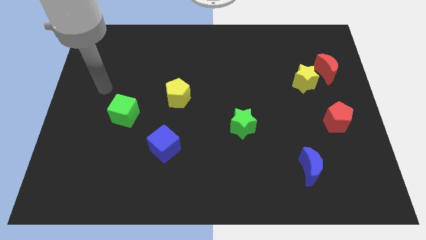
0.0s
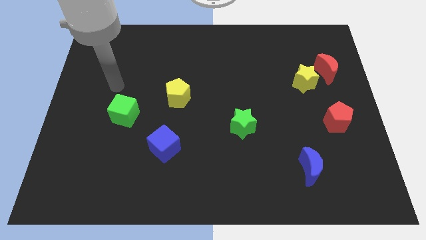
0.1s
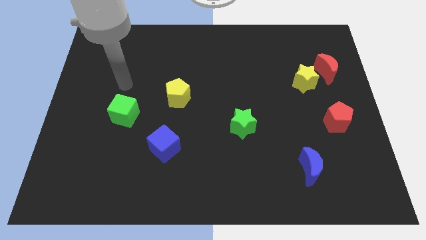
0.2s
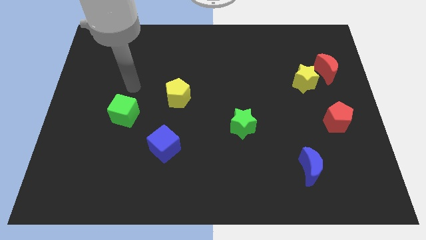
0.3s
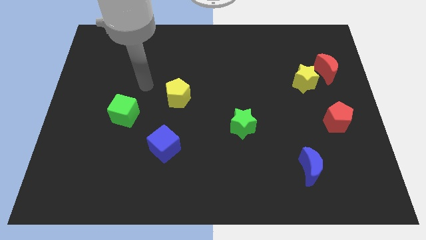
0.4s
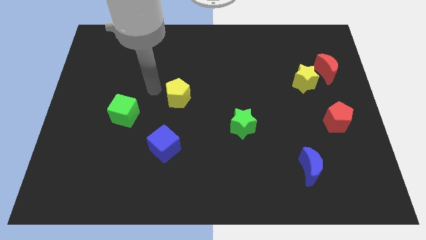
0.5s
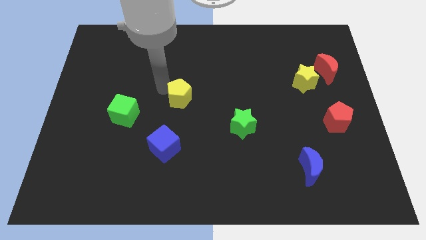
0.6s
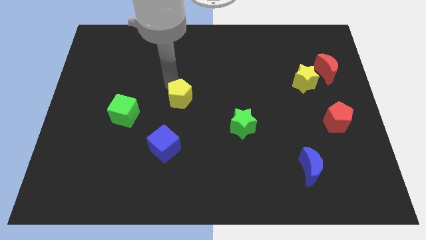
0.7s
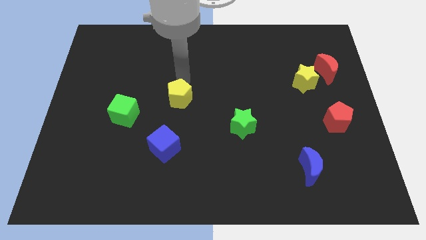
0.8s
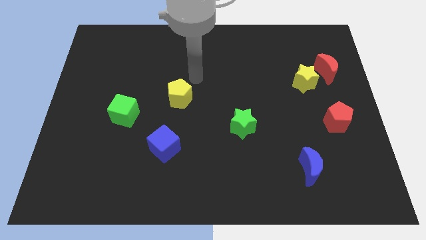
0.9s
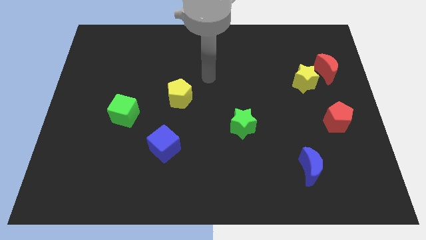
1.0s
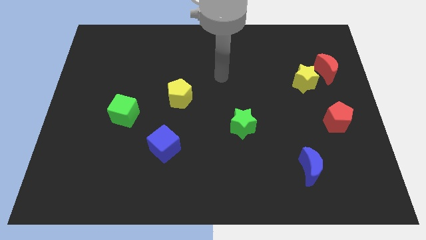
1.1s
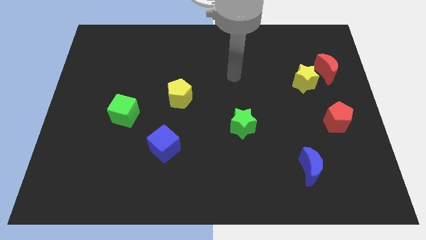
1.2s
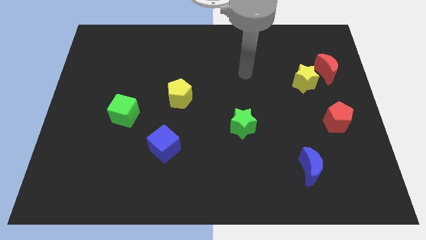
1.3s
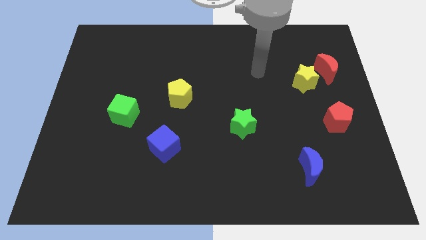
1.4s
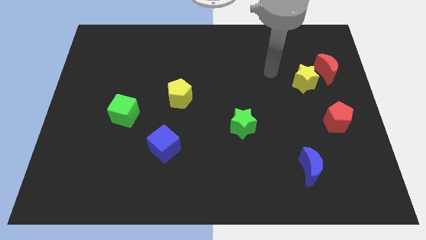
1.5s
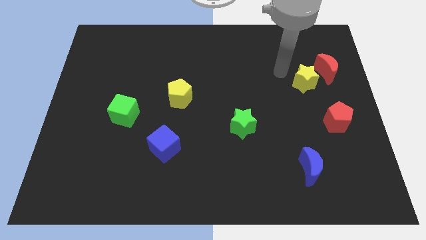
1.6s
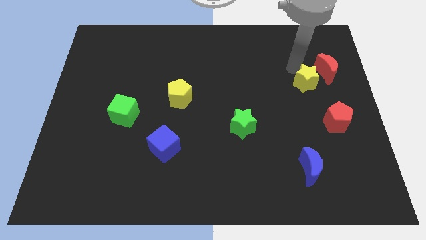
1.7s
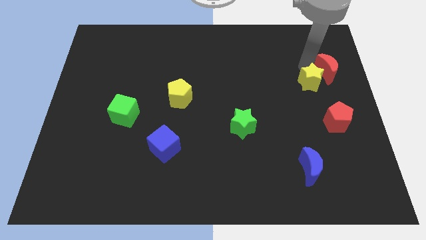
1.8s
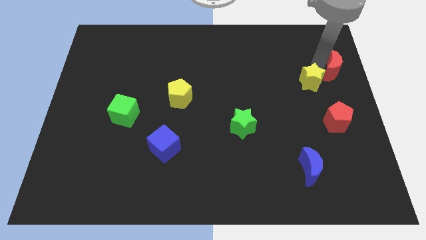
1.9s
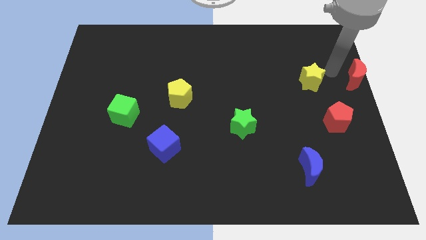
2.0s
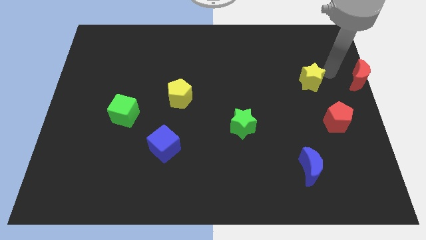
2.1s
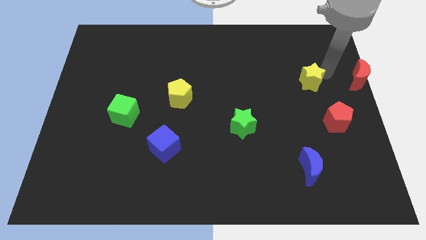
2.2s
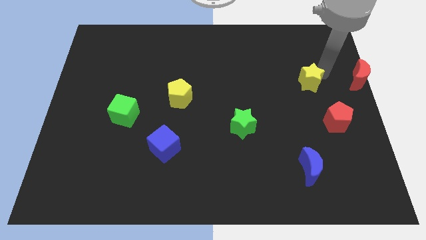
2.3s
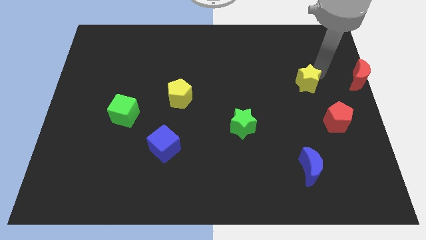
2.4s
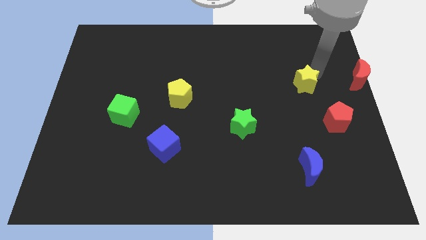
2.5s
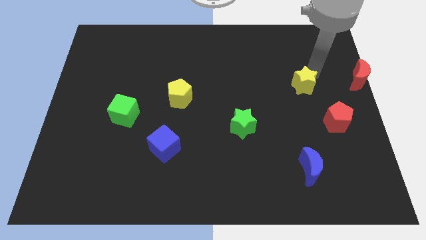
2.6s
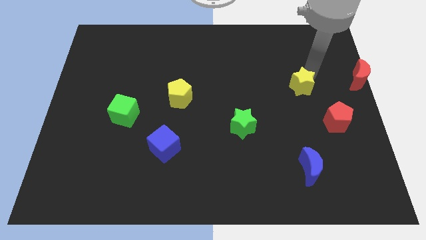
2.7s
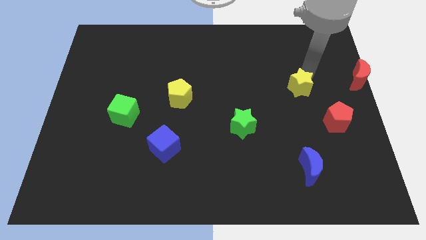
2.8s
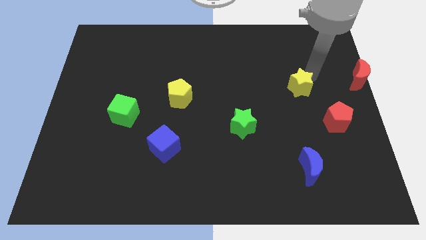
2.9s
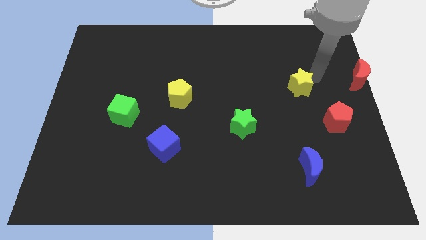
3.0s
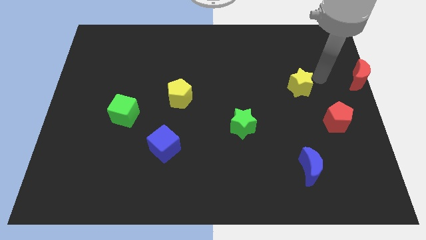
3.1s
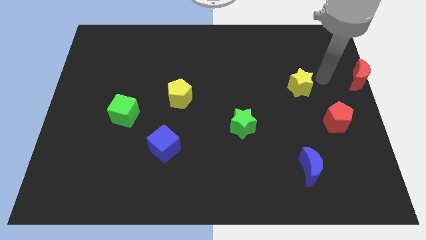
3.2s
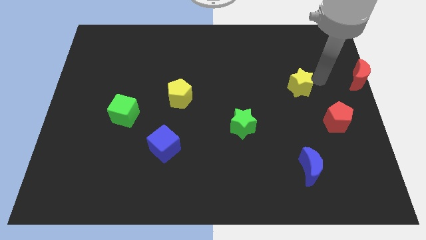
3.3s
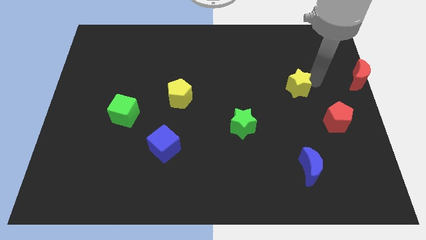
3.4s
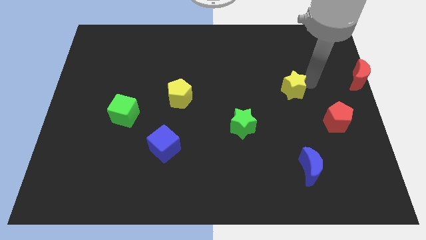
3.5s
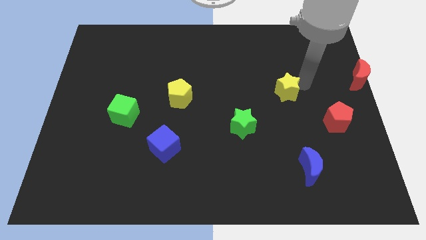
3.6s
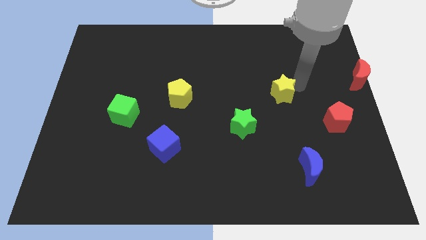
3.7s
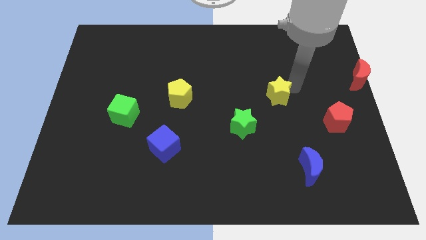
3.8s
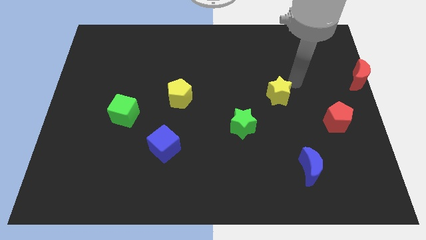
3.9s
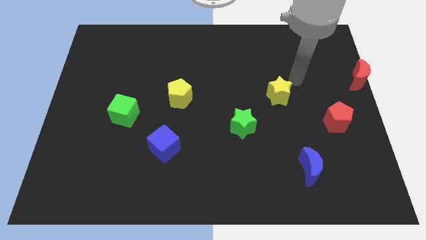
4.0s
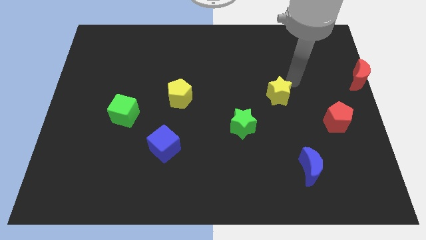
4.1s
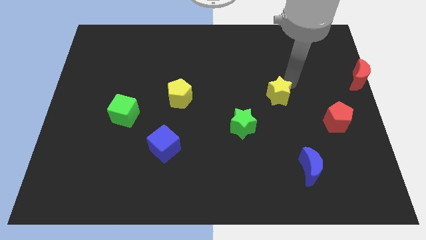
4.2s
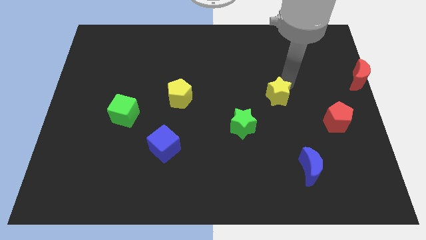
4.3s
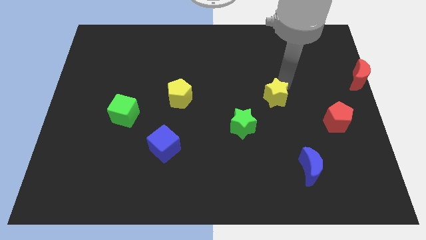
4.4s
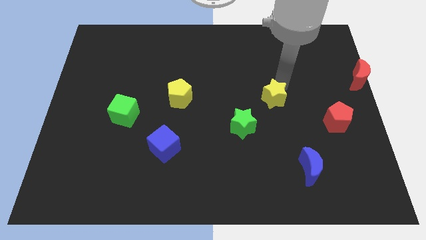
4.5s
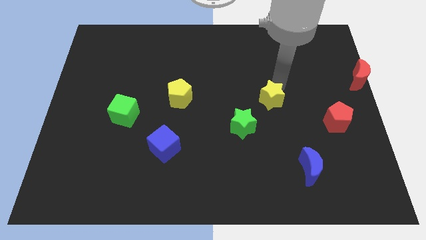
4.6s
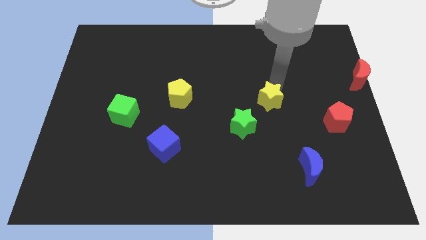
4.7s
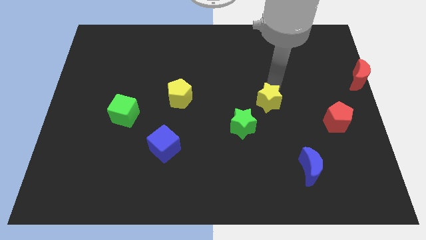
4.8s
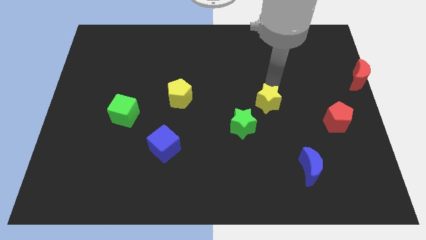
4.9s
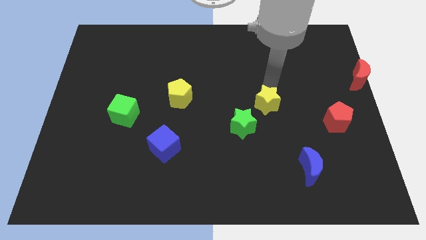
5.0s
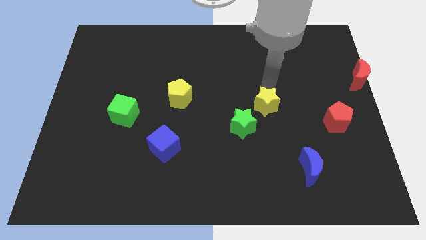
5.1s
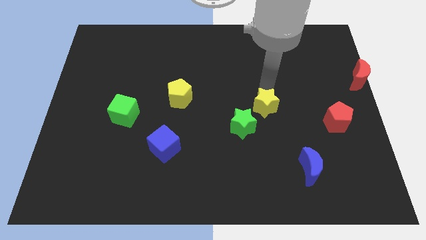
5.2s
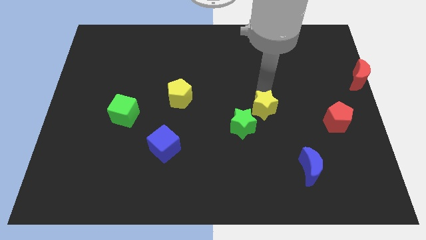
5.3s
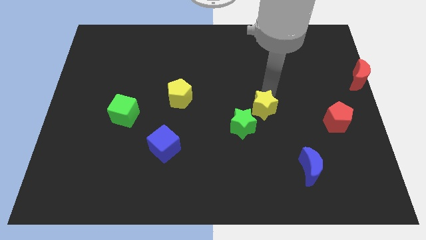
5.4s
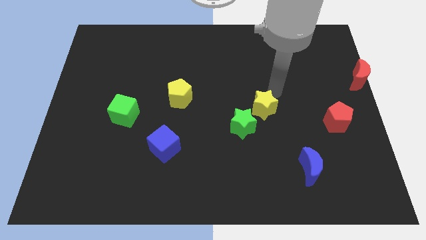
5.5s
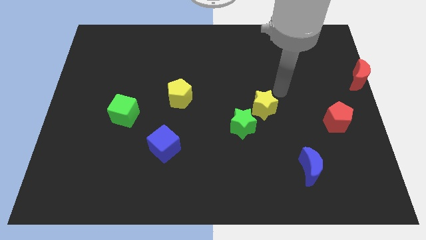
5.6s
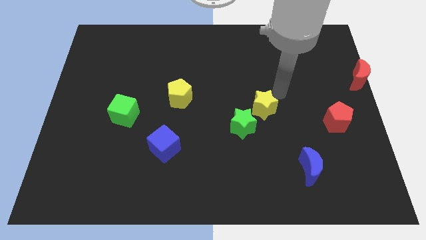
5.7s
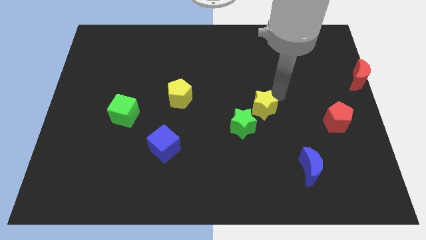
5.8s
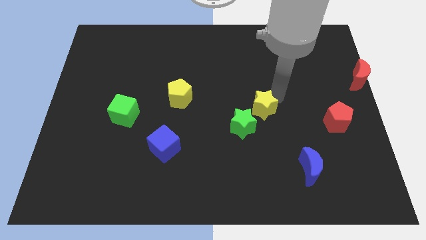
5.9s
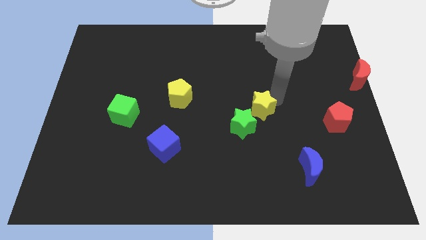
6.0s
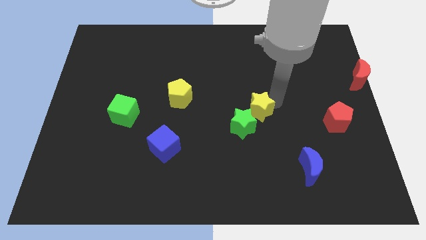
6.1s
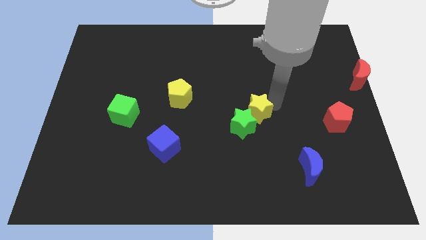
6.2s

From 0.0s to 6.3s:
put the yellow star close to the green star

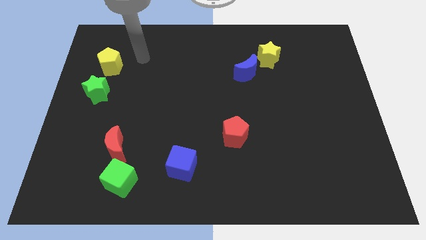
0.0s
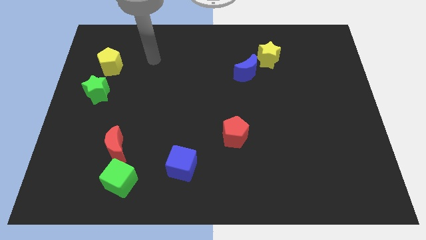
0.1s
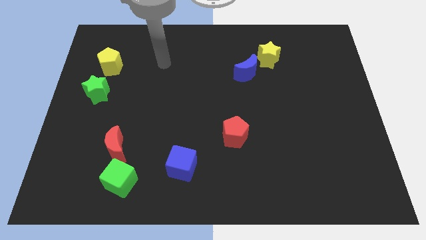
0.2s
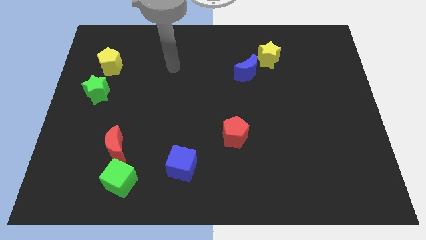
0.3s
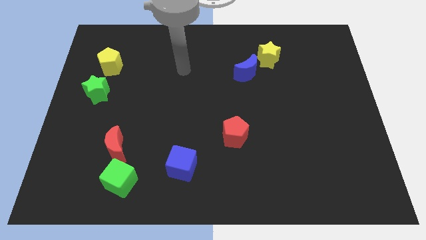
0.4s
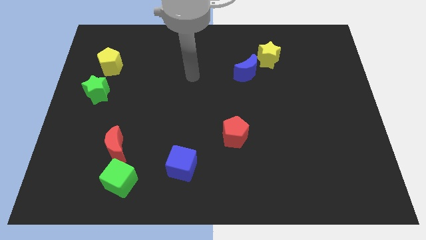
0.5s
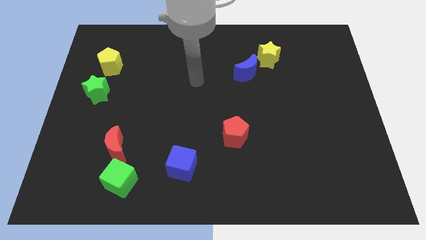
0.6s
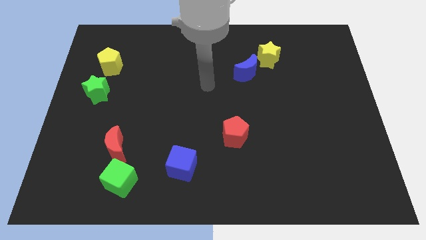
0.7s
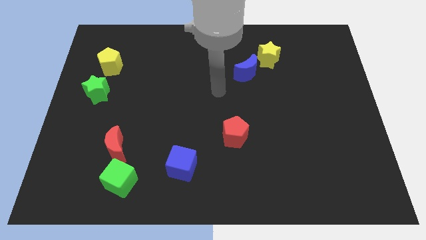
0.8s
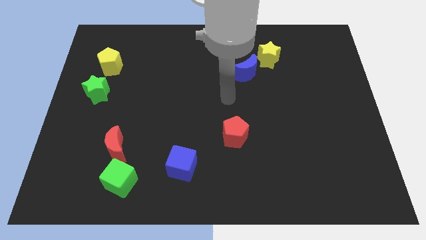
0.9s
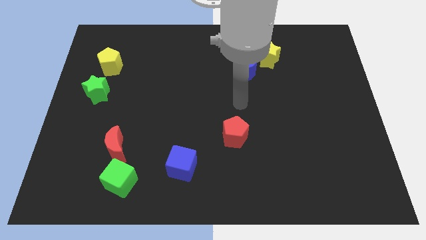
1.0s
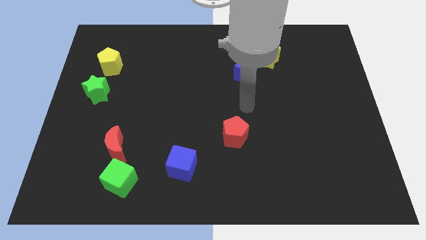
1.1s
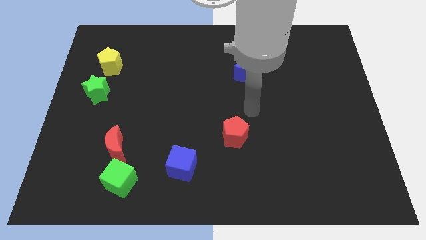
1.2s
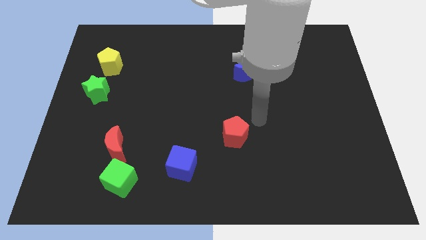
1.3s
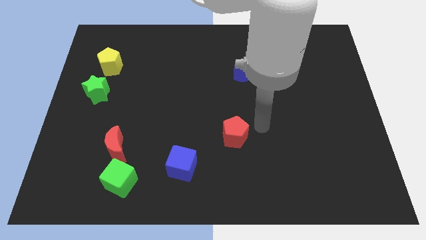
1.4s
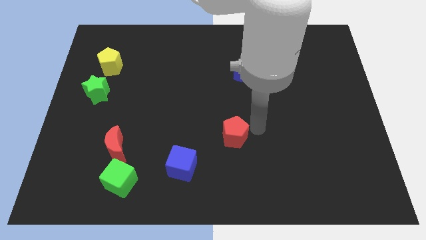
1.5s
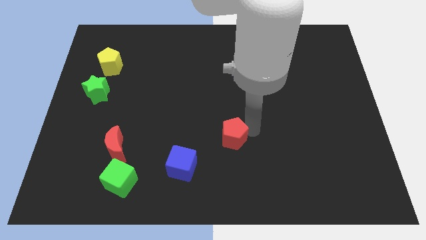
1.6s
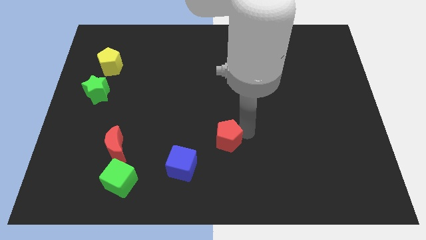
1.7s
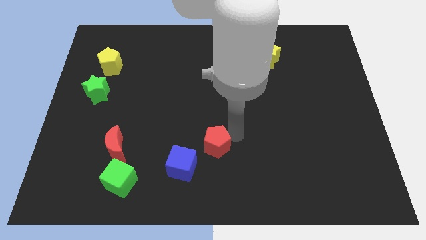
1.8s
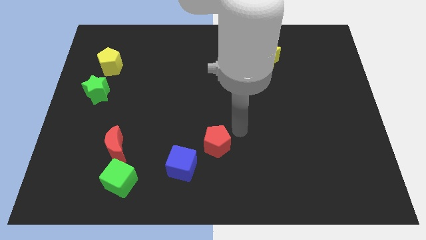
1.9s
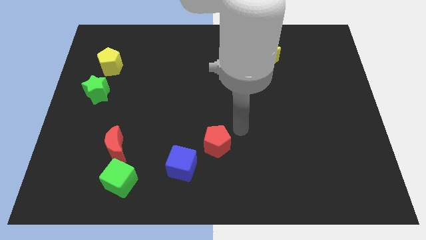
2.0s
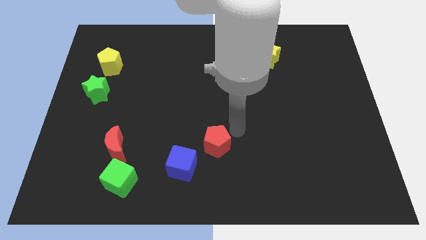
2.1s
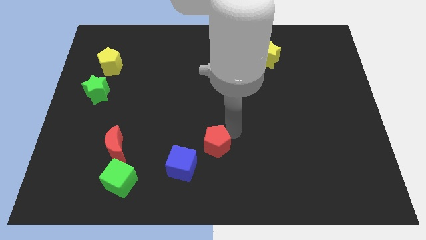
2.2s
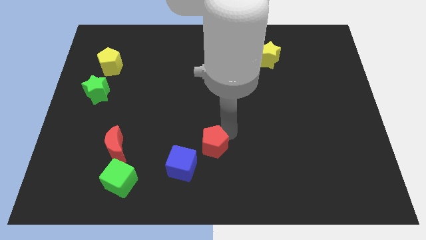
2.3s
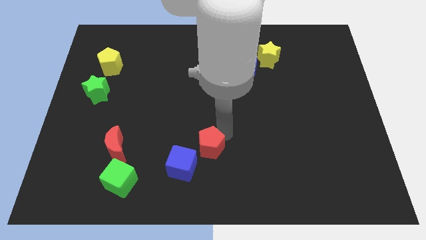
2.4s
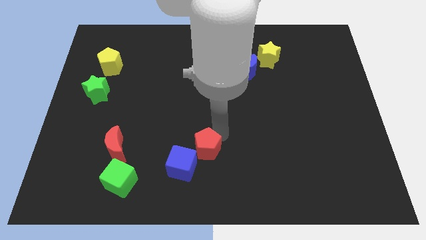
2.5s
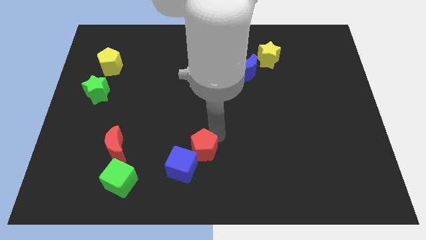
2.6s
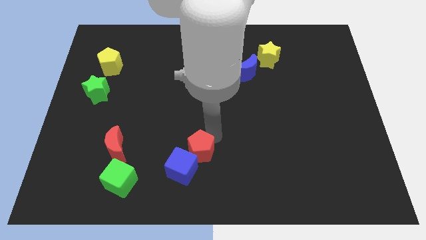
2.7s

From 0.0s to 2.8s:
slide the red pentagon next to the blue cube
